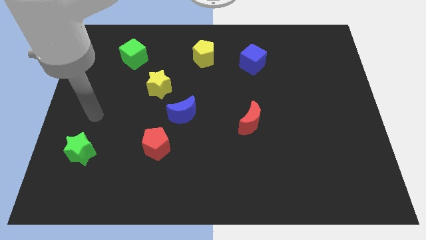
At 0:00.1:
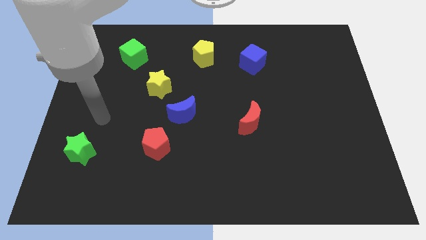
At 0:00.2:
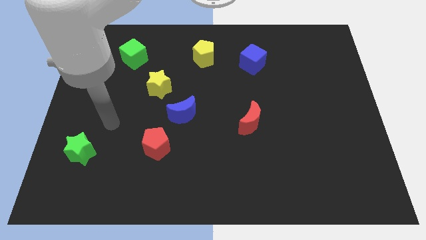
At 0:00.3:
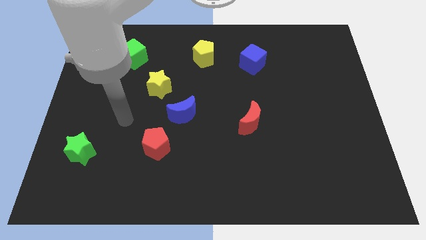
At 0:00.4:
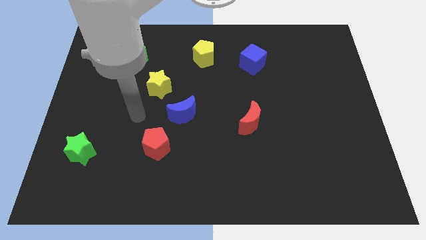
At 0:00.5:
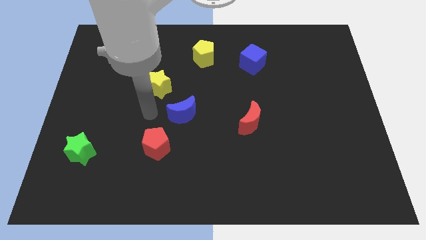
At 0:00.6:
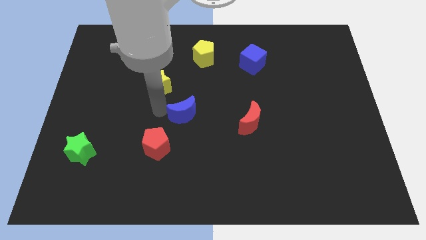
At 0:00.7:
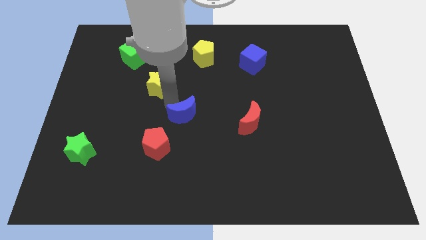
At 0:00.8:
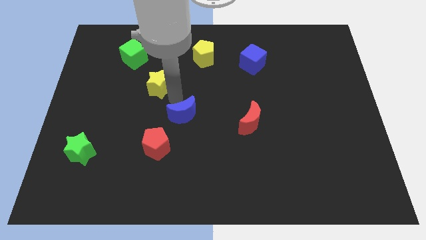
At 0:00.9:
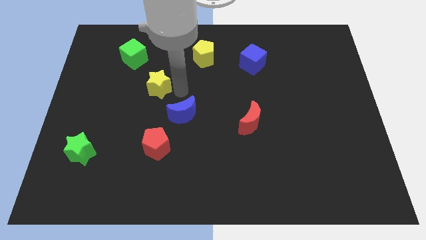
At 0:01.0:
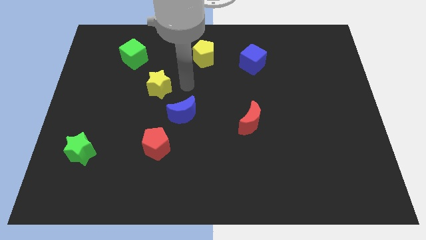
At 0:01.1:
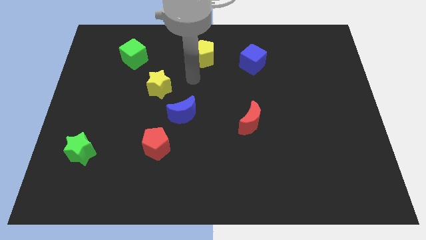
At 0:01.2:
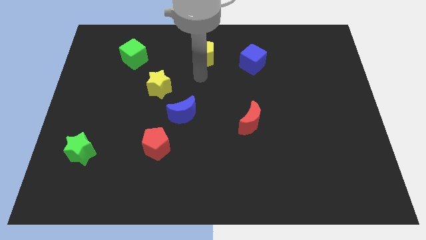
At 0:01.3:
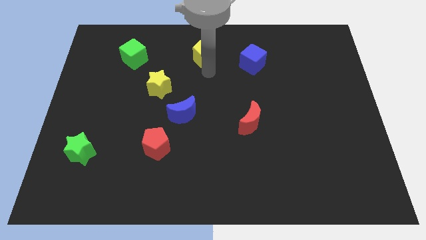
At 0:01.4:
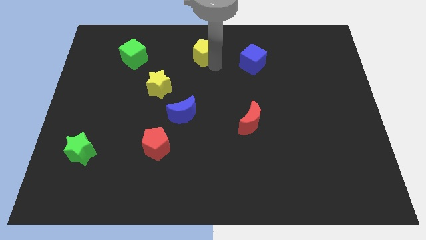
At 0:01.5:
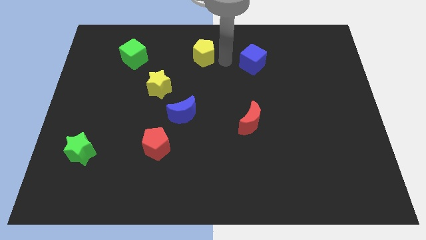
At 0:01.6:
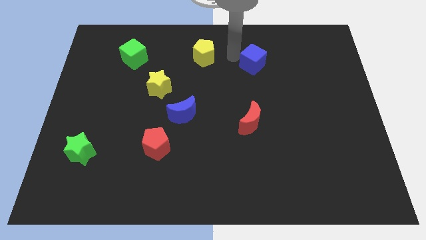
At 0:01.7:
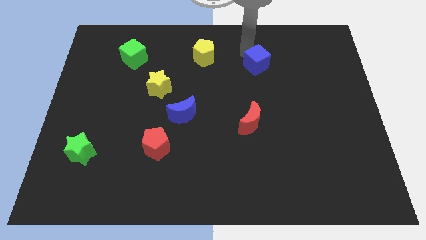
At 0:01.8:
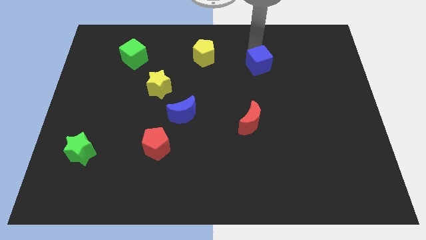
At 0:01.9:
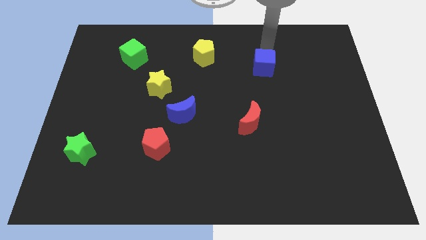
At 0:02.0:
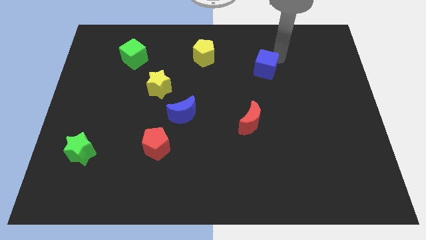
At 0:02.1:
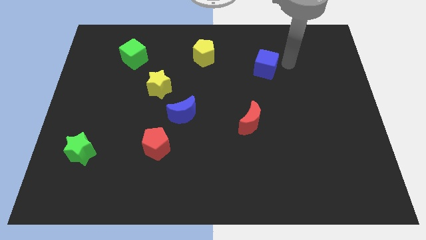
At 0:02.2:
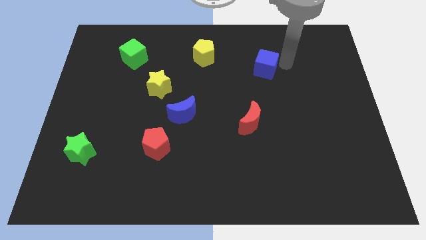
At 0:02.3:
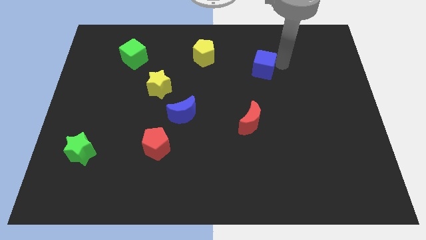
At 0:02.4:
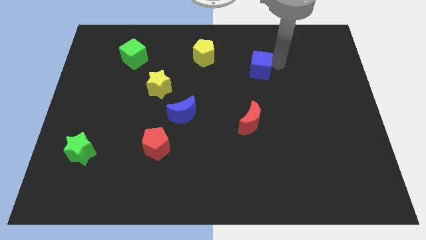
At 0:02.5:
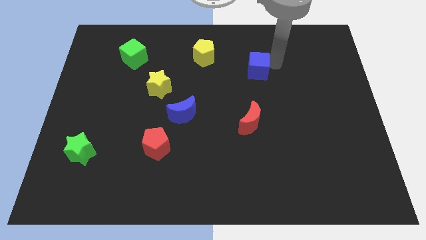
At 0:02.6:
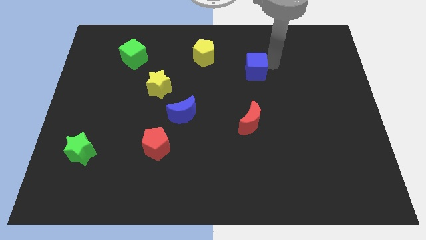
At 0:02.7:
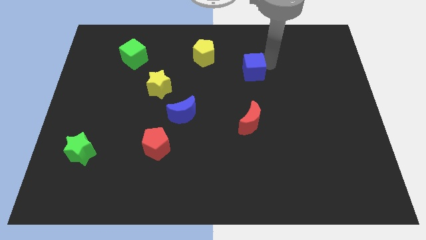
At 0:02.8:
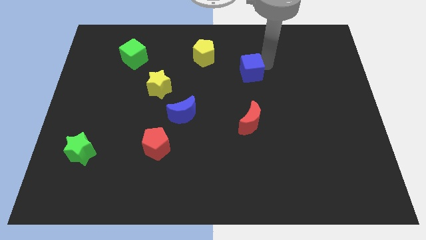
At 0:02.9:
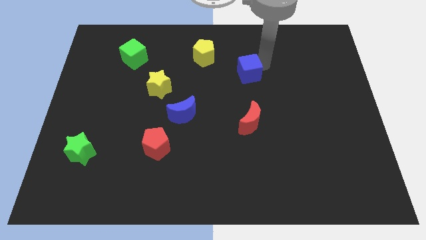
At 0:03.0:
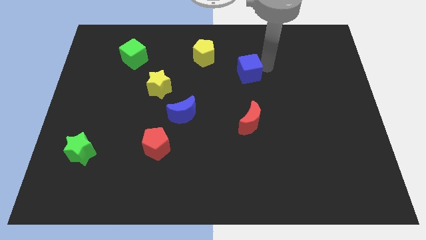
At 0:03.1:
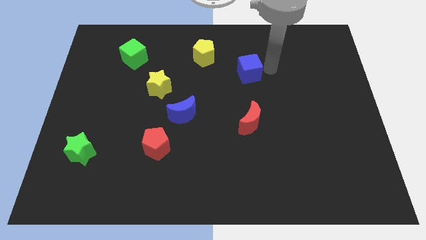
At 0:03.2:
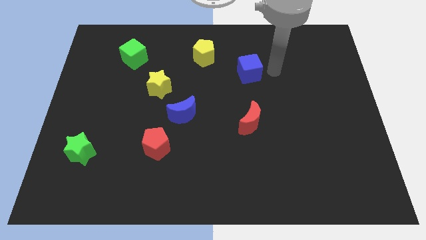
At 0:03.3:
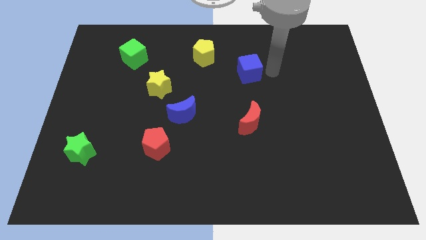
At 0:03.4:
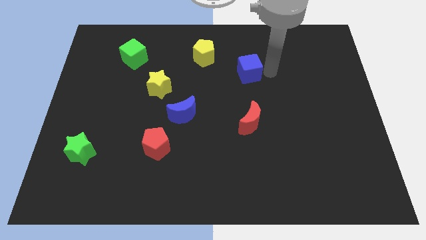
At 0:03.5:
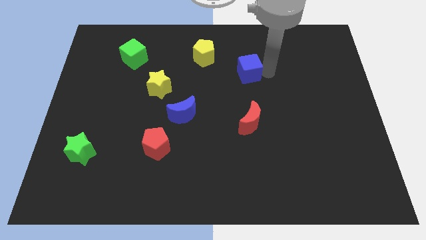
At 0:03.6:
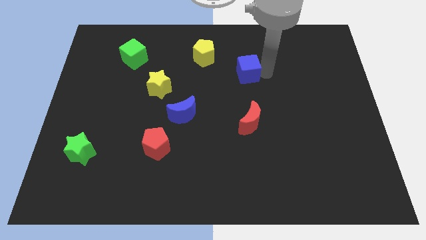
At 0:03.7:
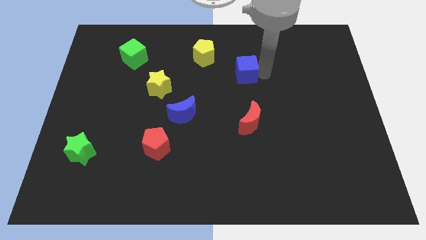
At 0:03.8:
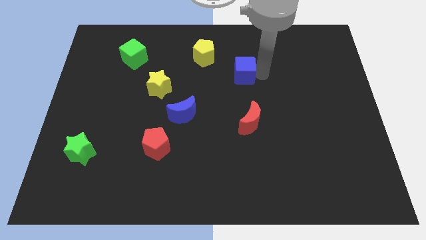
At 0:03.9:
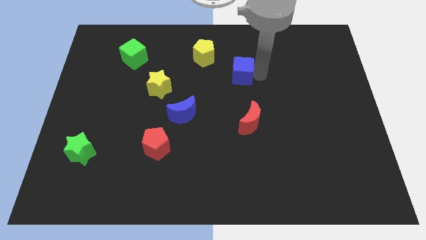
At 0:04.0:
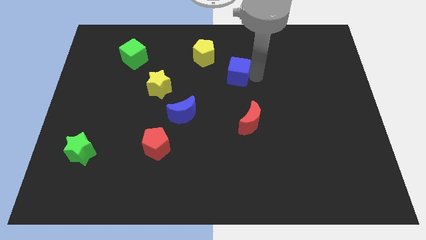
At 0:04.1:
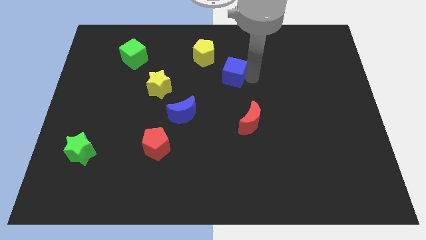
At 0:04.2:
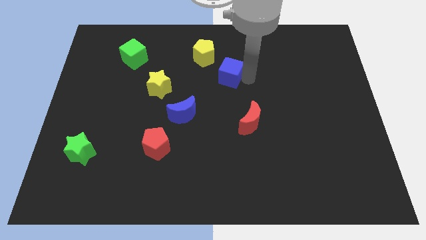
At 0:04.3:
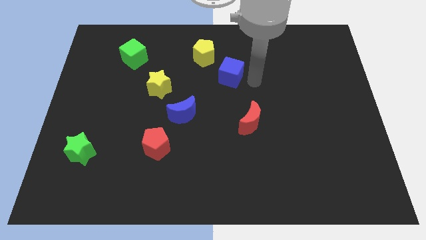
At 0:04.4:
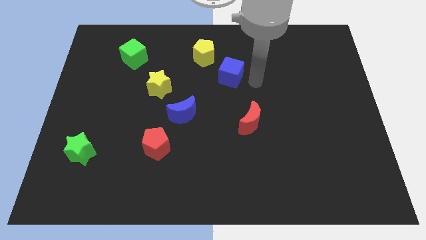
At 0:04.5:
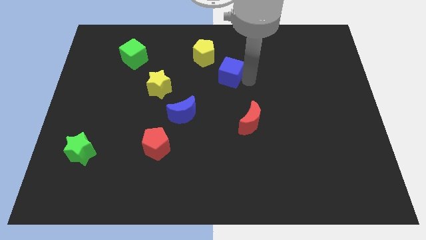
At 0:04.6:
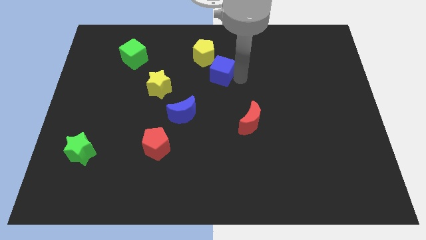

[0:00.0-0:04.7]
slightly move the blue cube to the left

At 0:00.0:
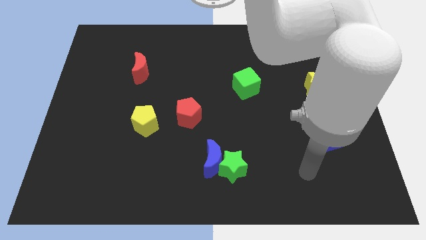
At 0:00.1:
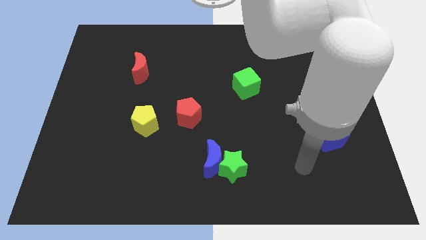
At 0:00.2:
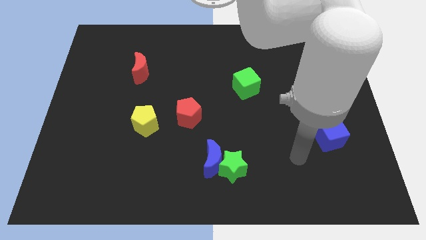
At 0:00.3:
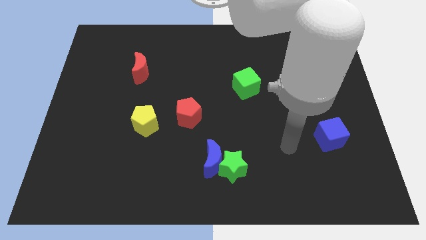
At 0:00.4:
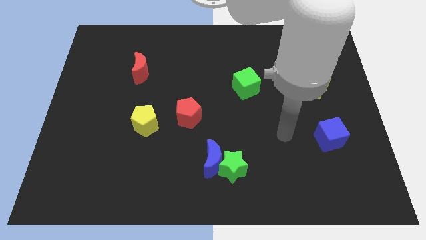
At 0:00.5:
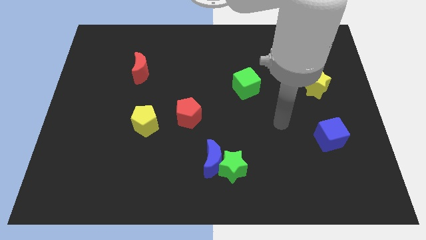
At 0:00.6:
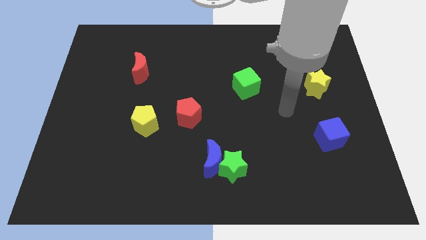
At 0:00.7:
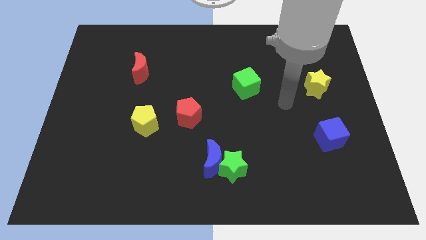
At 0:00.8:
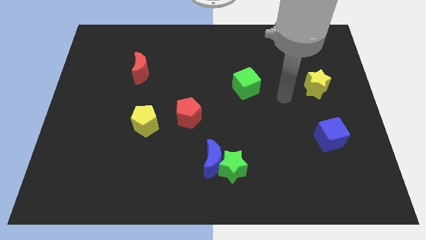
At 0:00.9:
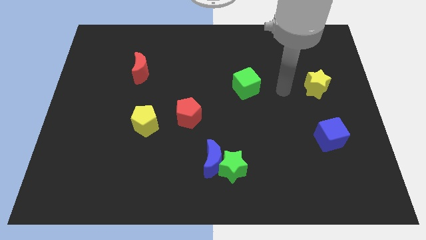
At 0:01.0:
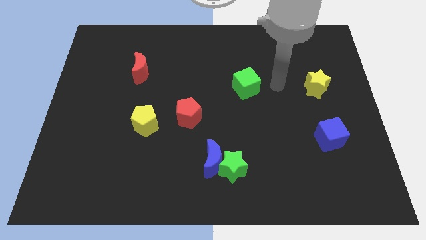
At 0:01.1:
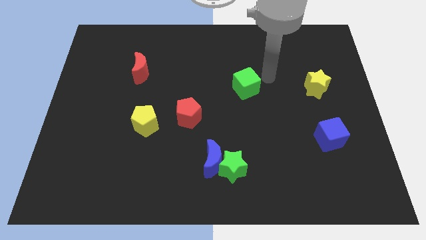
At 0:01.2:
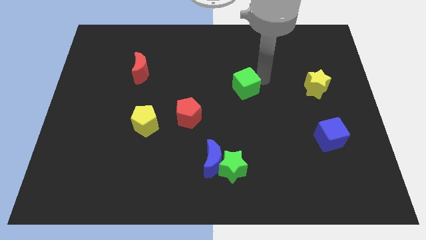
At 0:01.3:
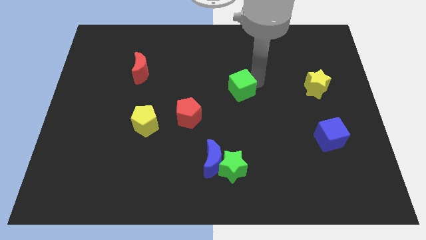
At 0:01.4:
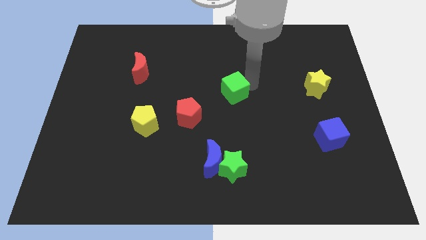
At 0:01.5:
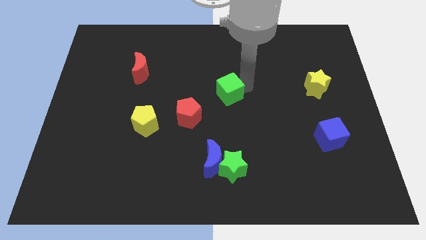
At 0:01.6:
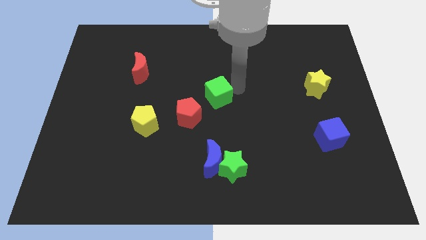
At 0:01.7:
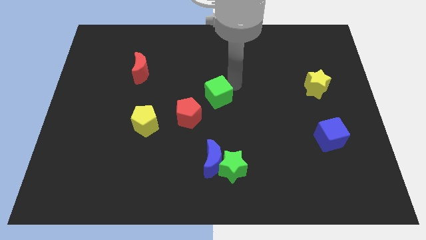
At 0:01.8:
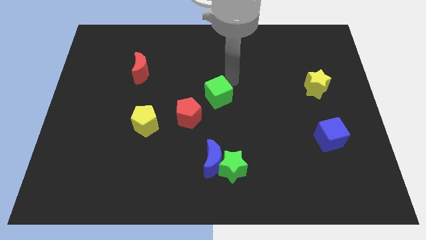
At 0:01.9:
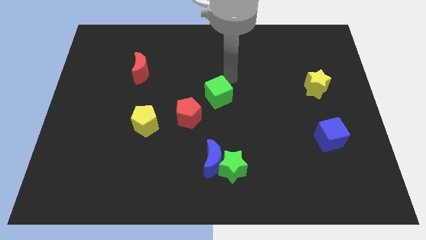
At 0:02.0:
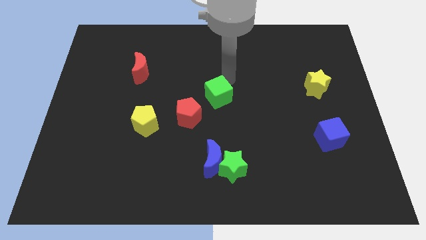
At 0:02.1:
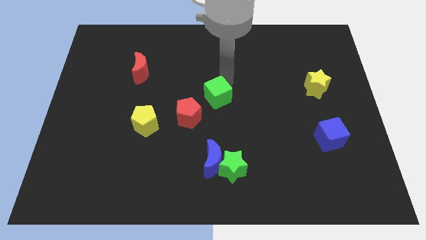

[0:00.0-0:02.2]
move the green cube down and to the left somewhat

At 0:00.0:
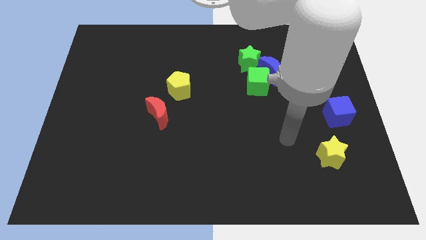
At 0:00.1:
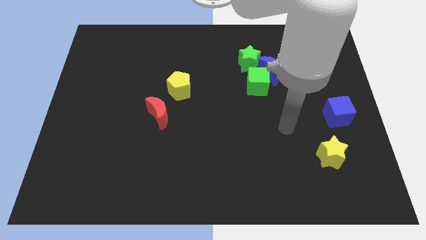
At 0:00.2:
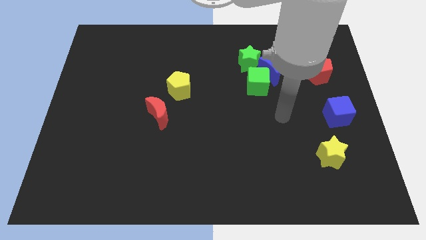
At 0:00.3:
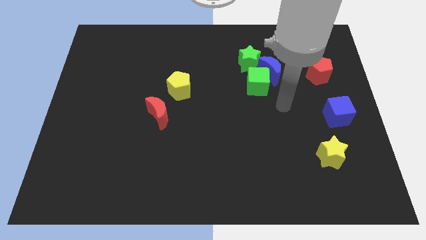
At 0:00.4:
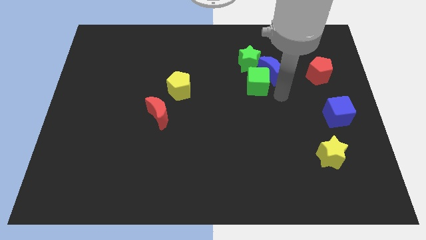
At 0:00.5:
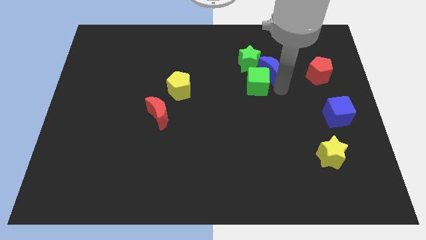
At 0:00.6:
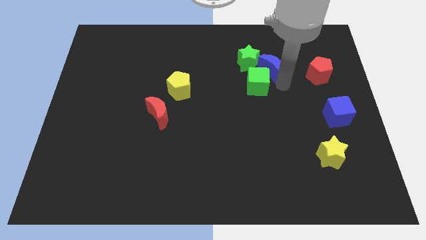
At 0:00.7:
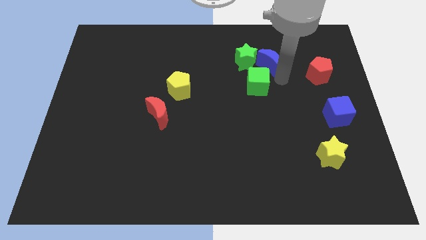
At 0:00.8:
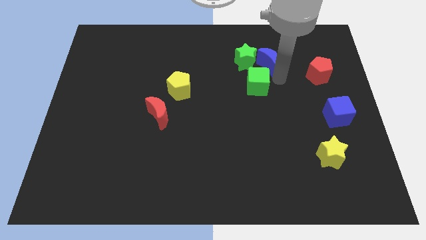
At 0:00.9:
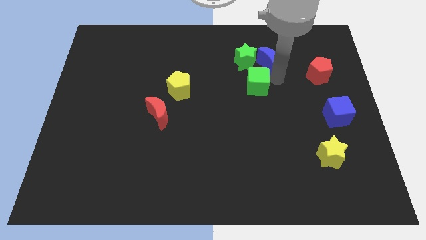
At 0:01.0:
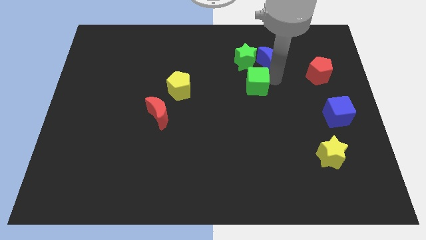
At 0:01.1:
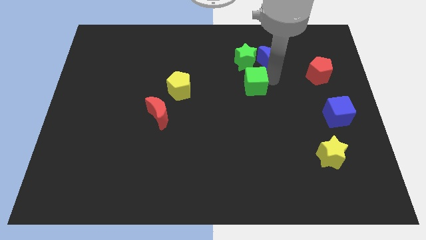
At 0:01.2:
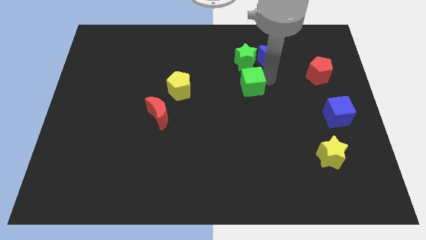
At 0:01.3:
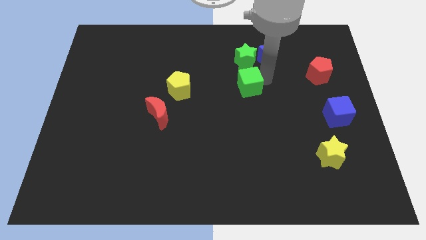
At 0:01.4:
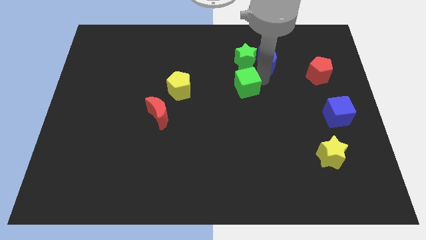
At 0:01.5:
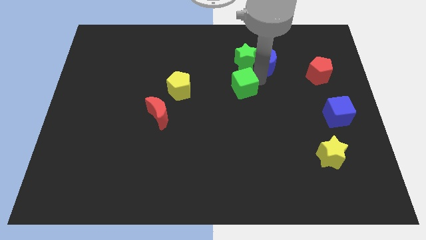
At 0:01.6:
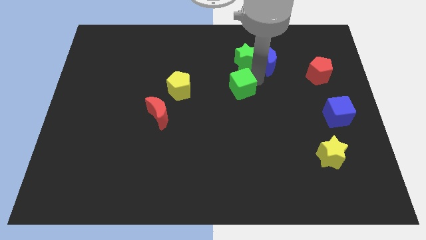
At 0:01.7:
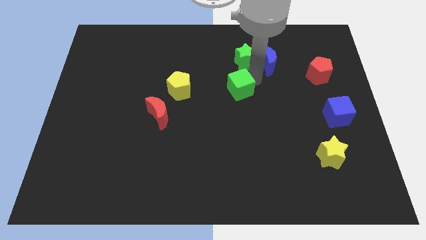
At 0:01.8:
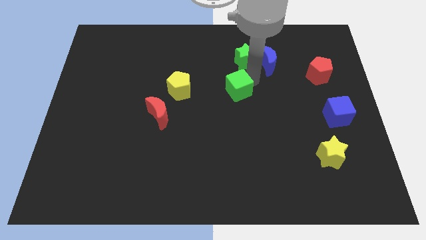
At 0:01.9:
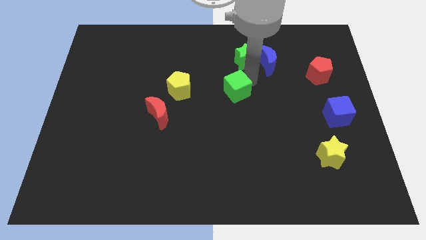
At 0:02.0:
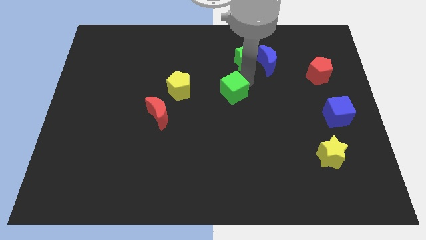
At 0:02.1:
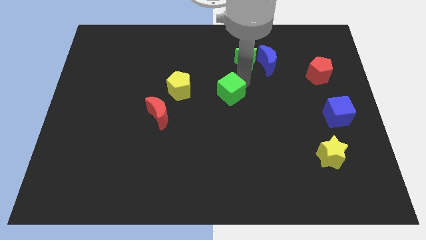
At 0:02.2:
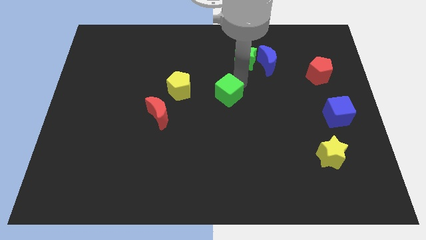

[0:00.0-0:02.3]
push the green cube a little bit diagonally down and left
